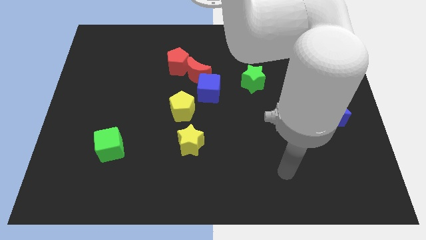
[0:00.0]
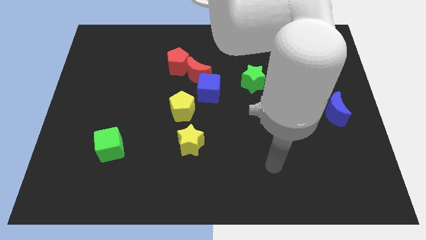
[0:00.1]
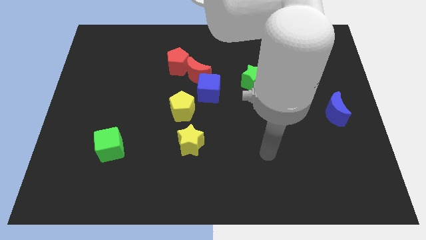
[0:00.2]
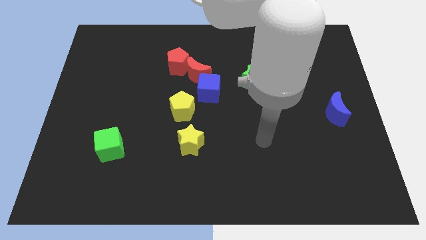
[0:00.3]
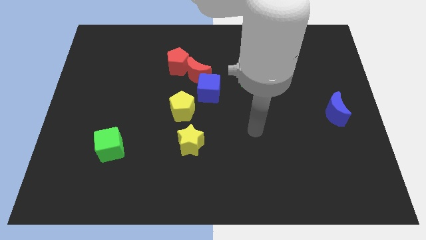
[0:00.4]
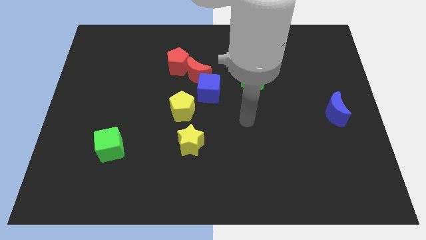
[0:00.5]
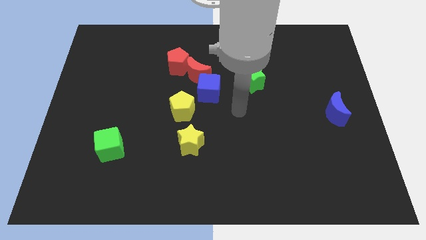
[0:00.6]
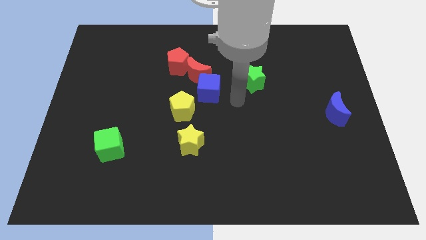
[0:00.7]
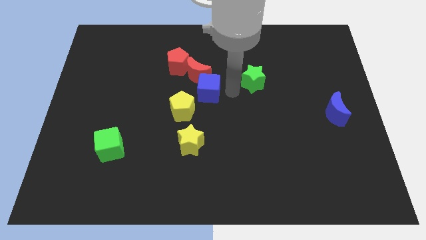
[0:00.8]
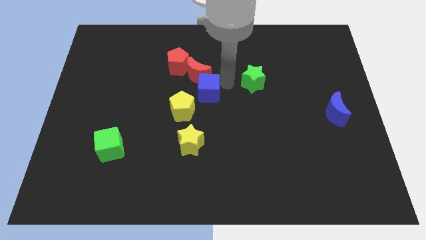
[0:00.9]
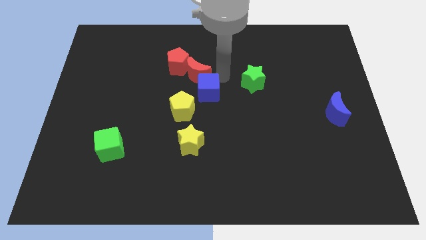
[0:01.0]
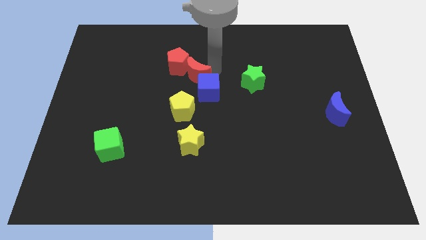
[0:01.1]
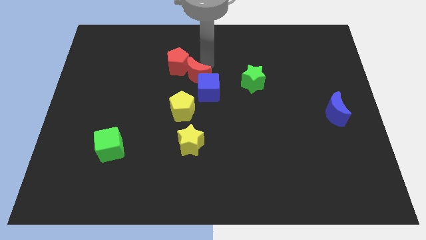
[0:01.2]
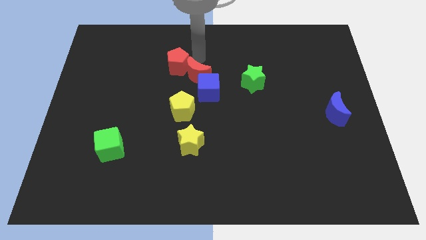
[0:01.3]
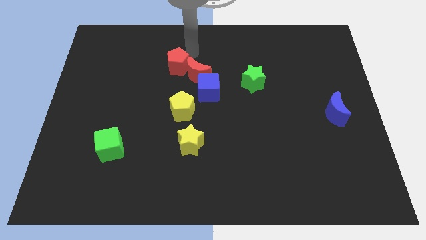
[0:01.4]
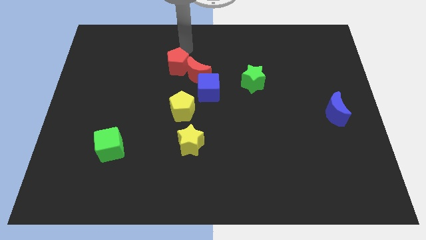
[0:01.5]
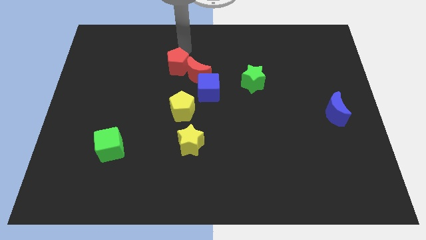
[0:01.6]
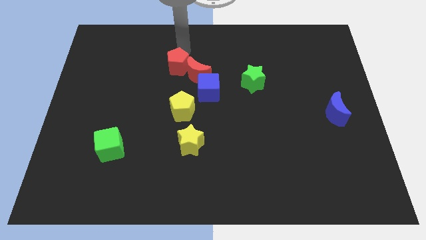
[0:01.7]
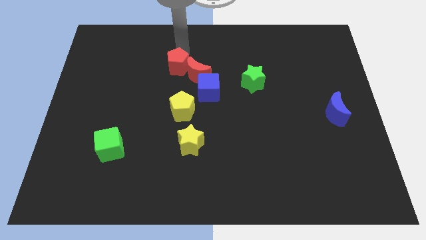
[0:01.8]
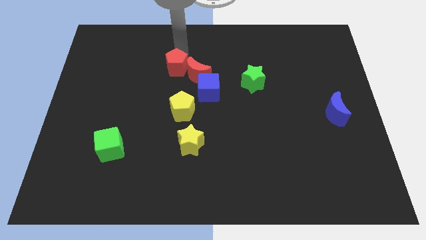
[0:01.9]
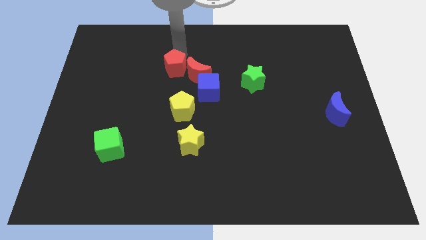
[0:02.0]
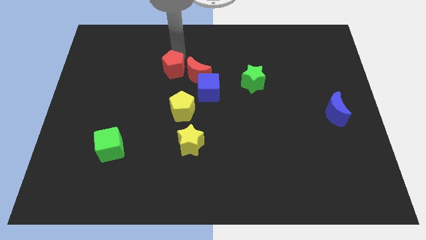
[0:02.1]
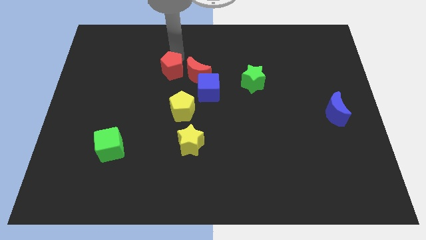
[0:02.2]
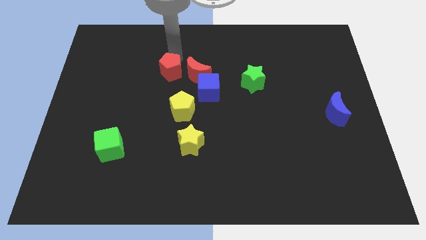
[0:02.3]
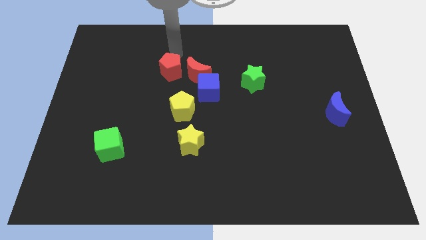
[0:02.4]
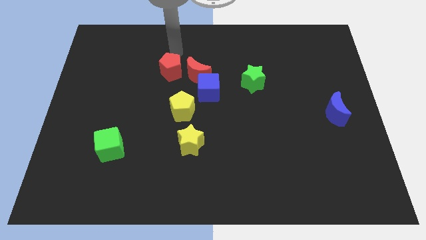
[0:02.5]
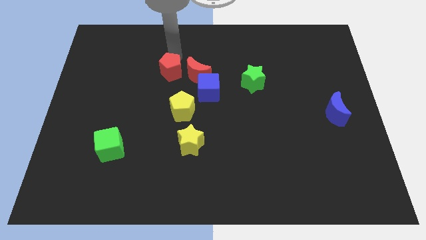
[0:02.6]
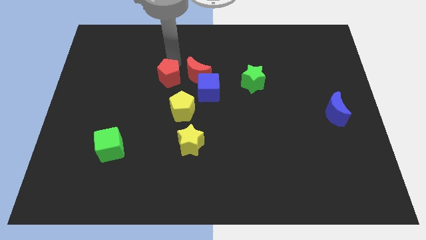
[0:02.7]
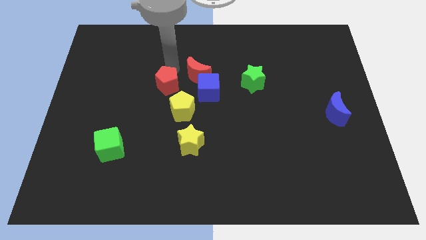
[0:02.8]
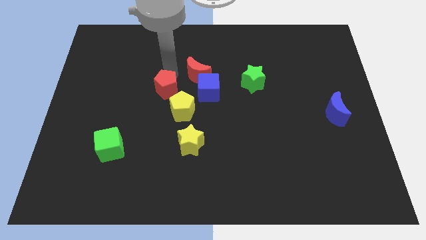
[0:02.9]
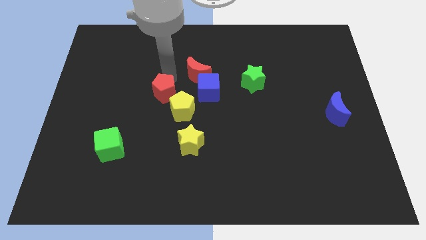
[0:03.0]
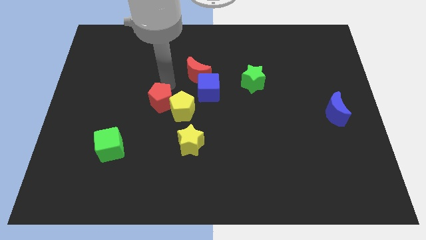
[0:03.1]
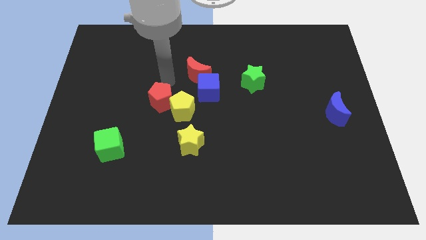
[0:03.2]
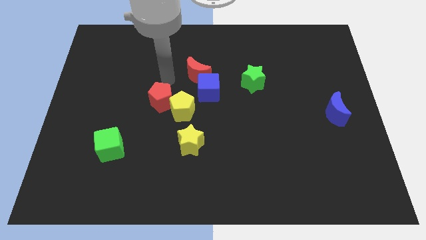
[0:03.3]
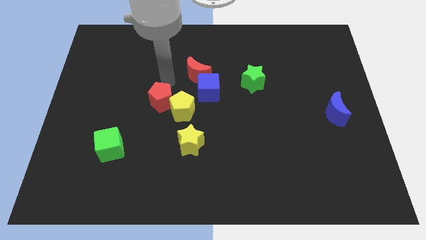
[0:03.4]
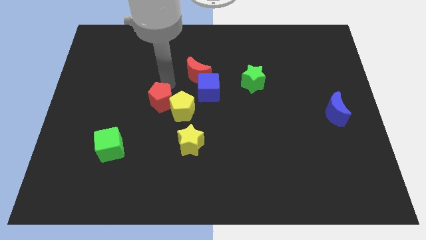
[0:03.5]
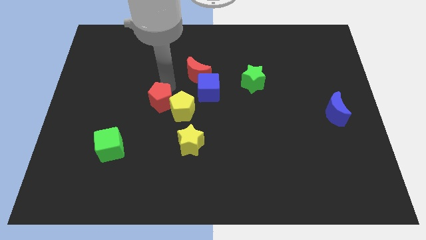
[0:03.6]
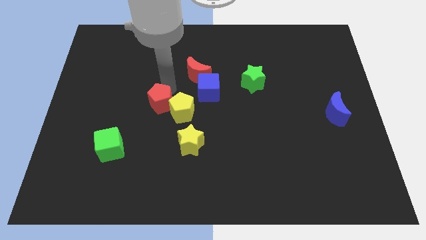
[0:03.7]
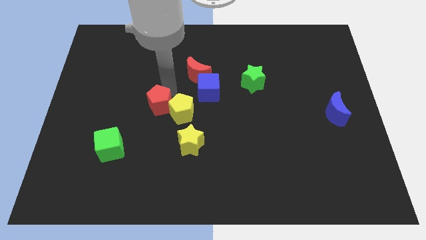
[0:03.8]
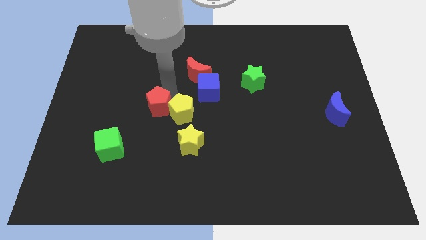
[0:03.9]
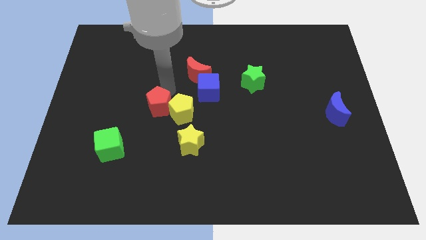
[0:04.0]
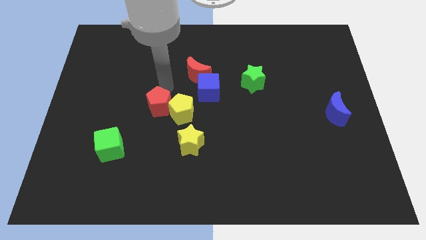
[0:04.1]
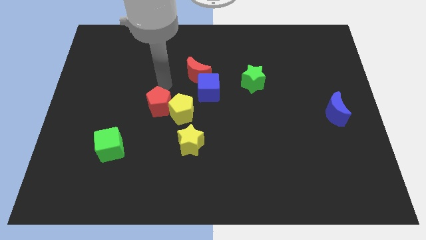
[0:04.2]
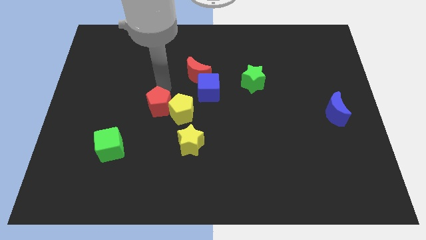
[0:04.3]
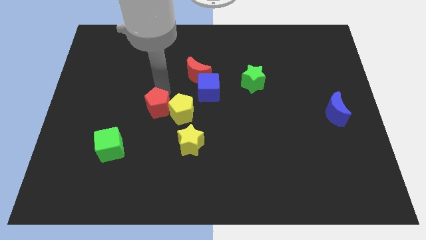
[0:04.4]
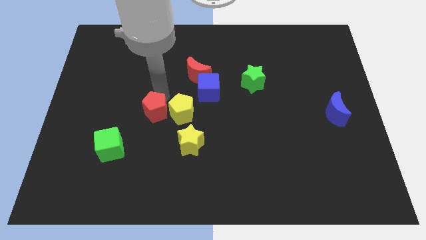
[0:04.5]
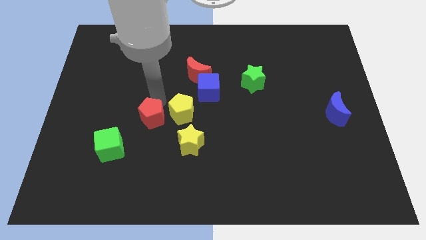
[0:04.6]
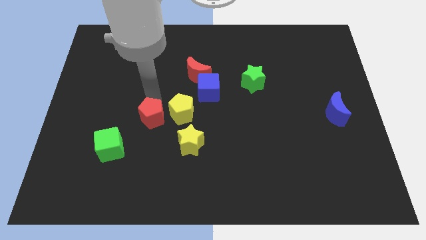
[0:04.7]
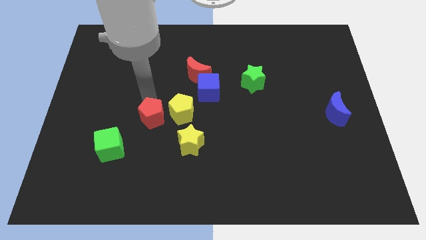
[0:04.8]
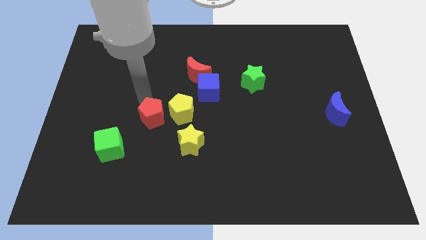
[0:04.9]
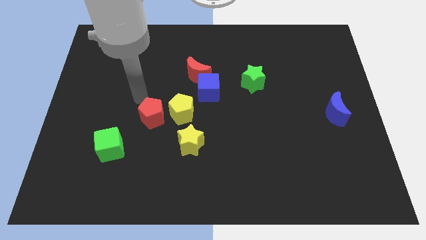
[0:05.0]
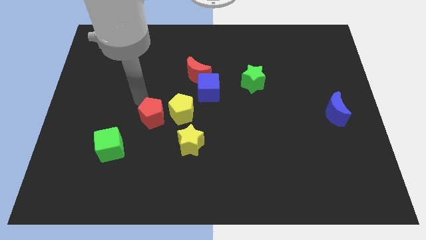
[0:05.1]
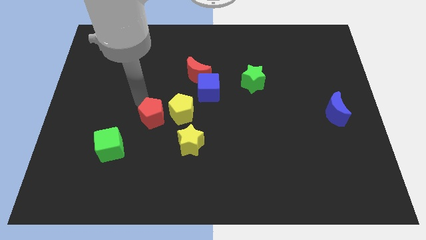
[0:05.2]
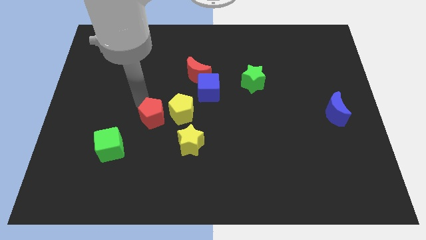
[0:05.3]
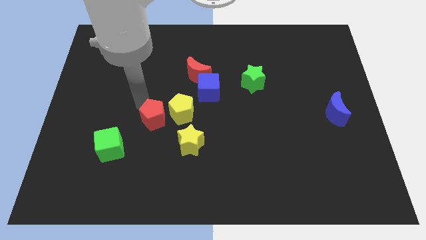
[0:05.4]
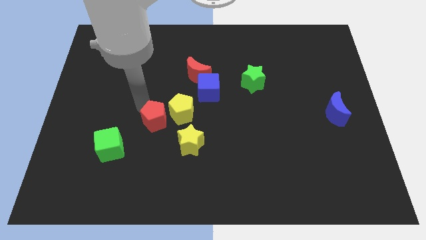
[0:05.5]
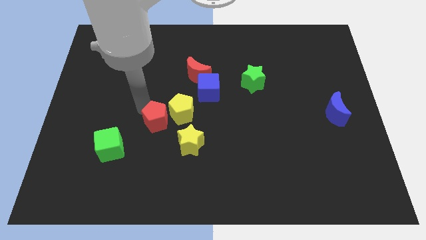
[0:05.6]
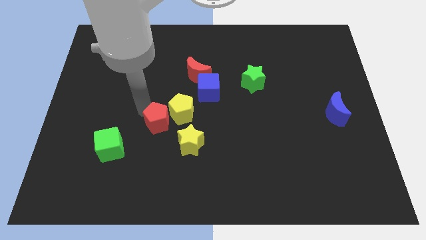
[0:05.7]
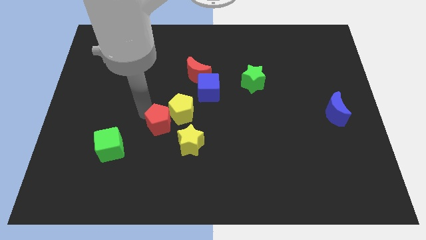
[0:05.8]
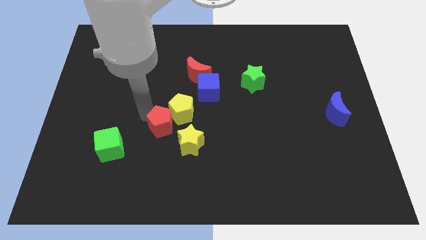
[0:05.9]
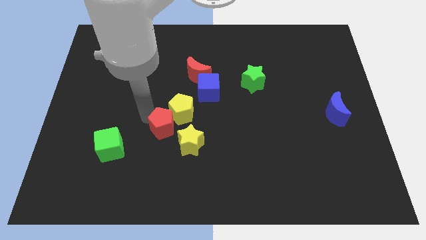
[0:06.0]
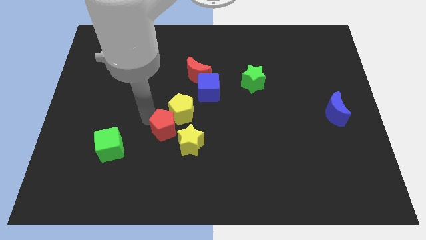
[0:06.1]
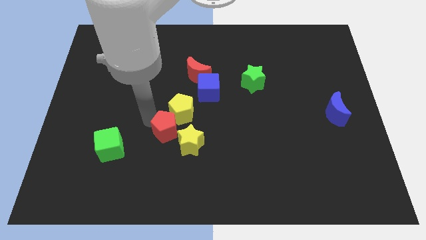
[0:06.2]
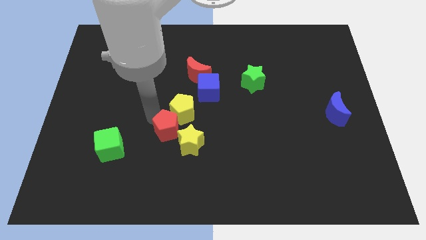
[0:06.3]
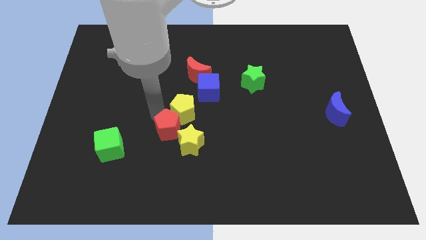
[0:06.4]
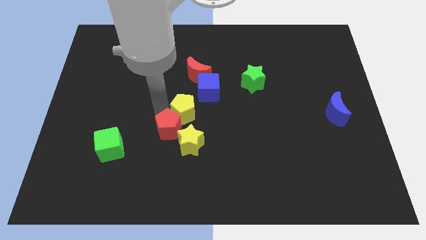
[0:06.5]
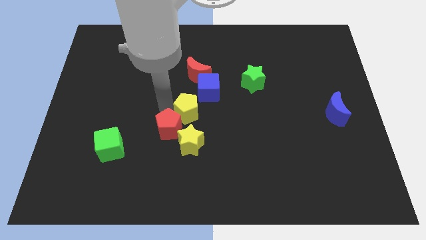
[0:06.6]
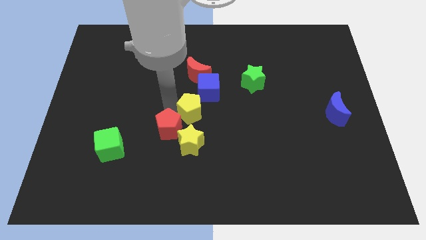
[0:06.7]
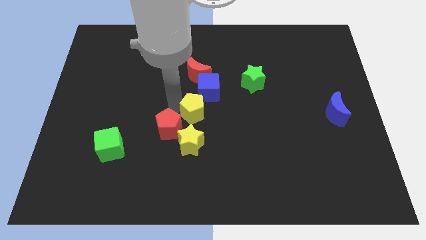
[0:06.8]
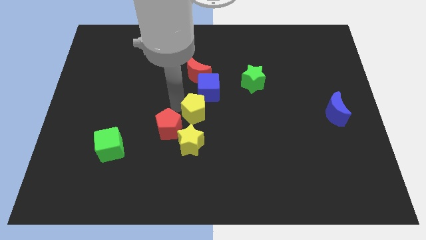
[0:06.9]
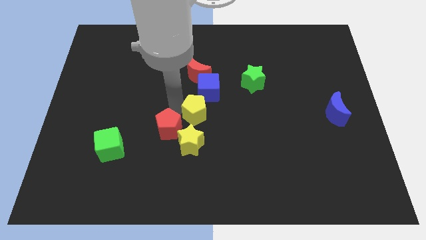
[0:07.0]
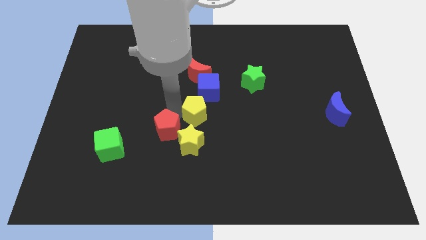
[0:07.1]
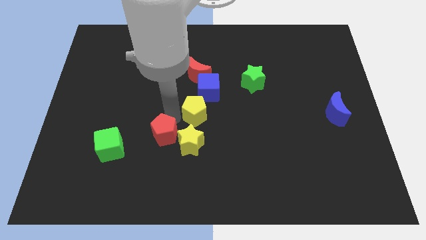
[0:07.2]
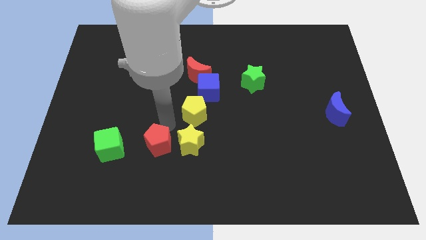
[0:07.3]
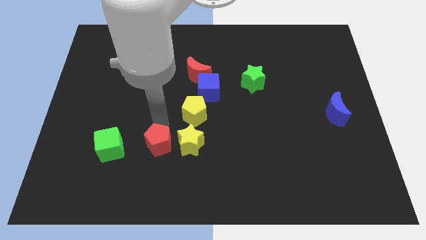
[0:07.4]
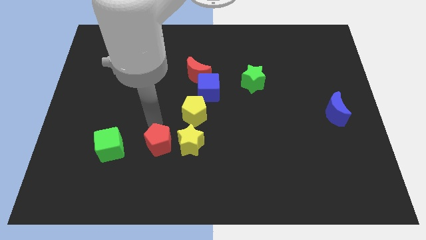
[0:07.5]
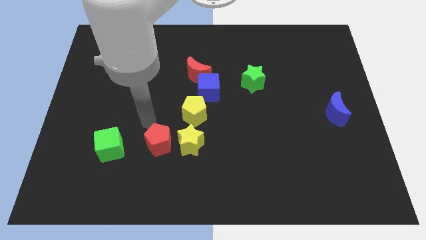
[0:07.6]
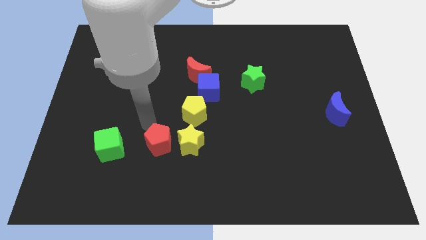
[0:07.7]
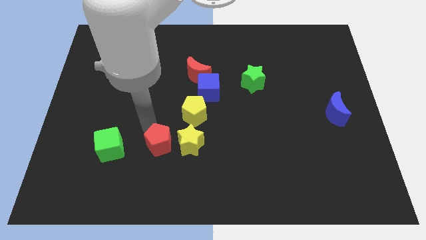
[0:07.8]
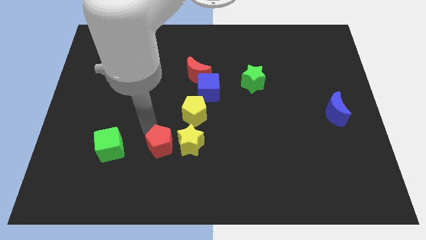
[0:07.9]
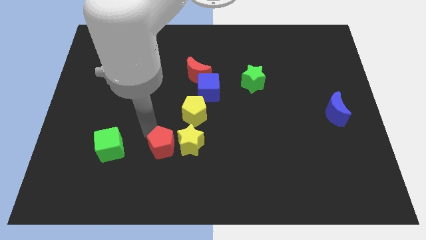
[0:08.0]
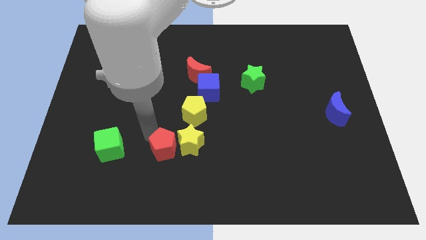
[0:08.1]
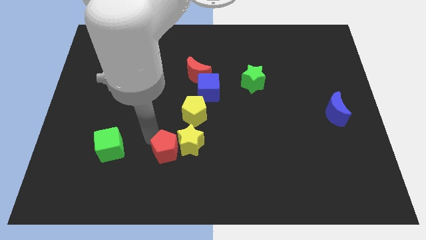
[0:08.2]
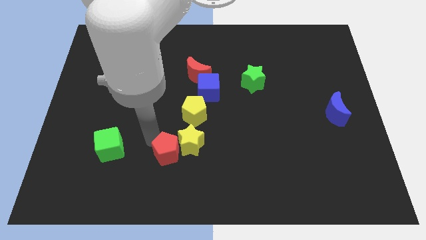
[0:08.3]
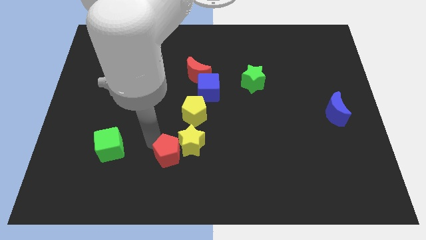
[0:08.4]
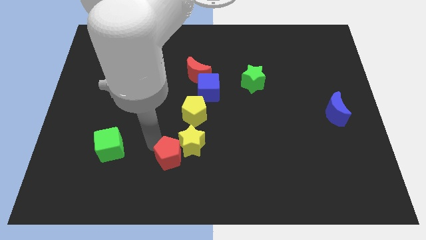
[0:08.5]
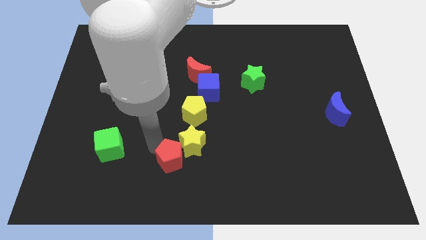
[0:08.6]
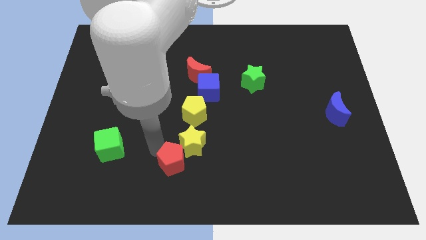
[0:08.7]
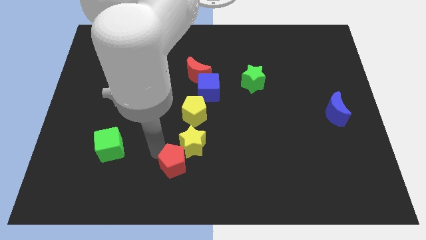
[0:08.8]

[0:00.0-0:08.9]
push the red pentagon to the bottom side
